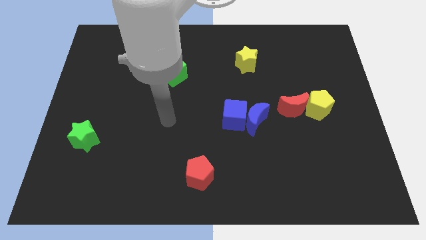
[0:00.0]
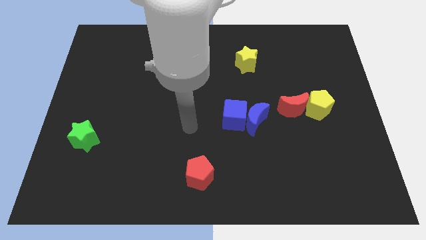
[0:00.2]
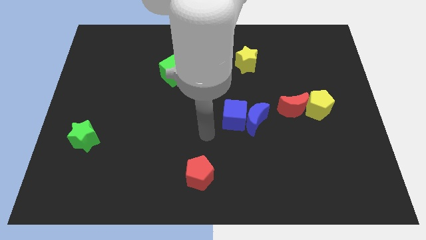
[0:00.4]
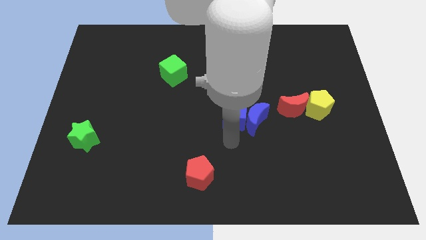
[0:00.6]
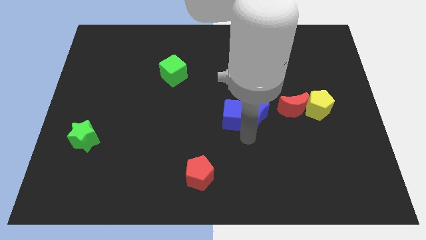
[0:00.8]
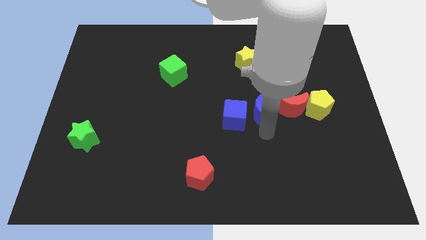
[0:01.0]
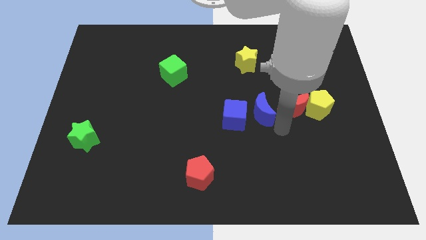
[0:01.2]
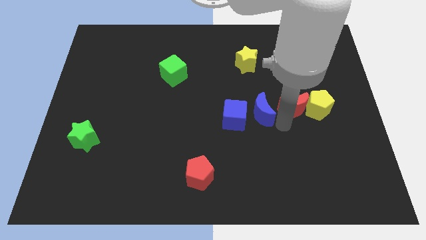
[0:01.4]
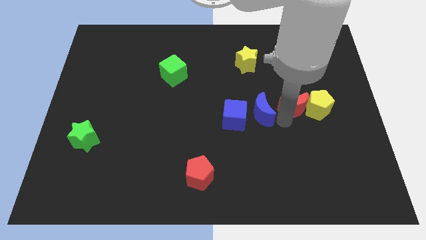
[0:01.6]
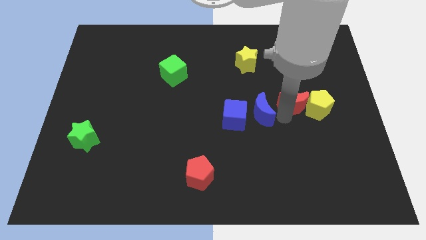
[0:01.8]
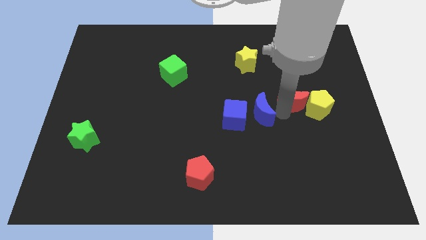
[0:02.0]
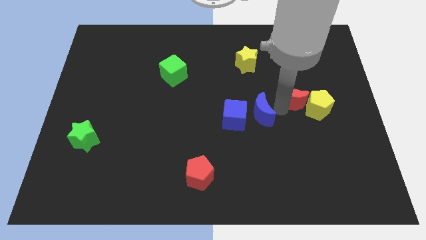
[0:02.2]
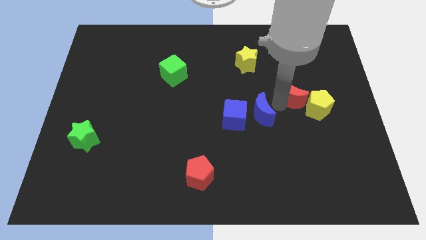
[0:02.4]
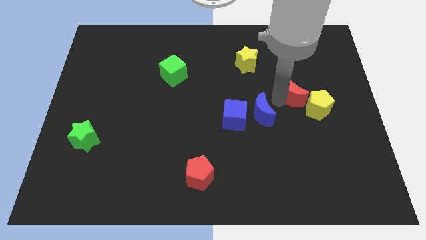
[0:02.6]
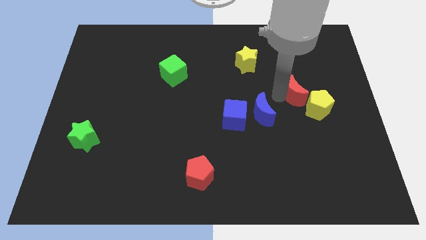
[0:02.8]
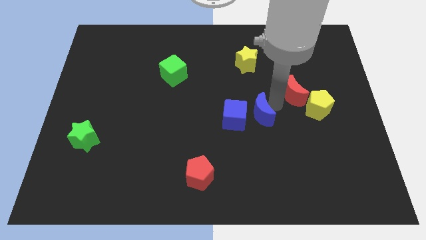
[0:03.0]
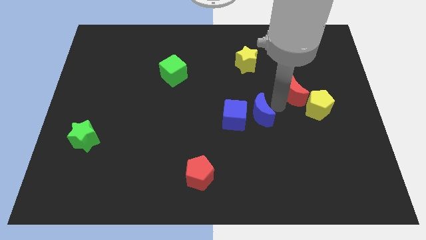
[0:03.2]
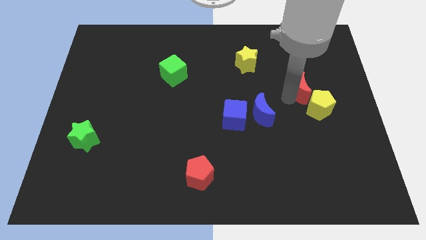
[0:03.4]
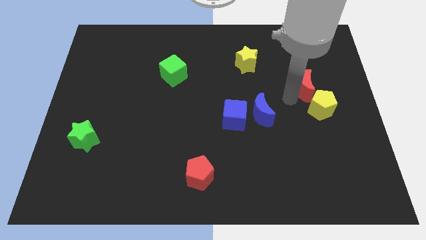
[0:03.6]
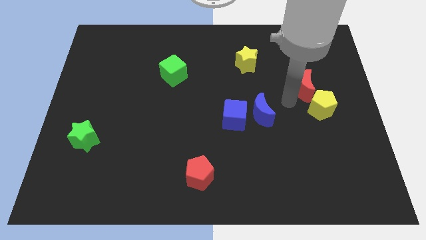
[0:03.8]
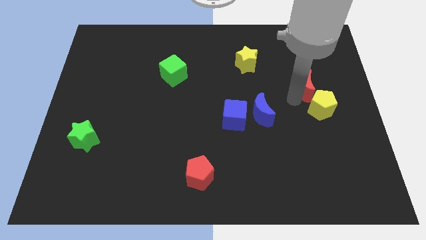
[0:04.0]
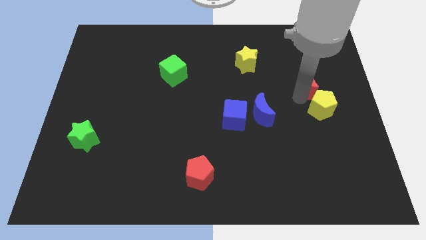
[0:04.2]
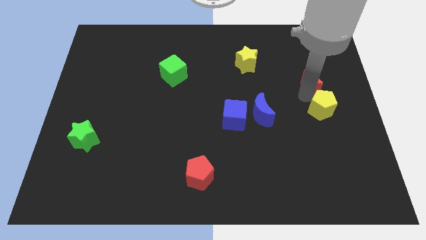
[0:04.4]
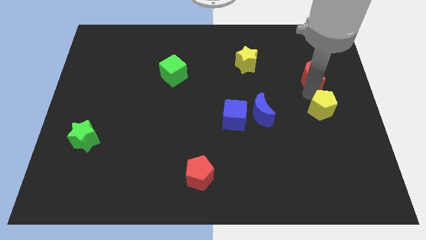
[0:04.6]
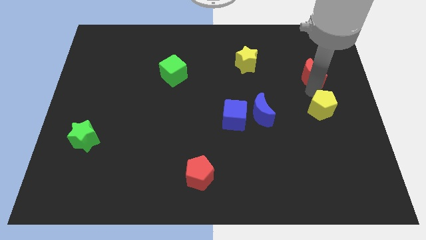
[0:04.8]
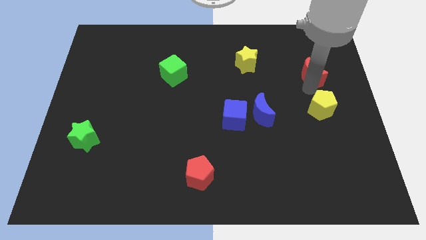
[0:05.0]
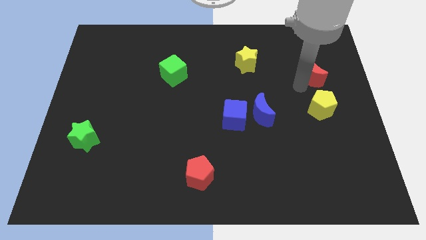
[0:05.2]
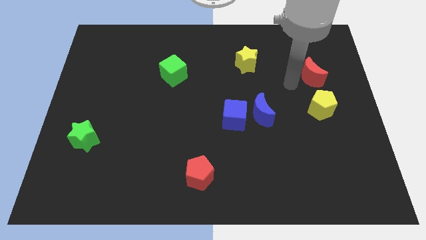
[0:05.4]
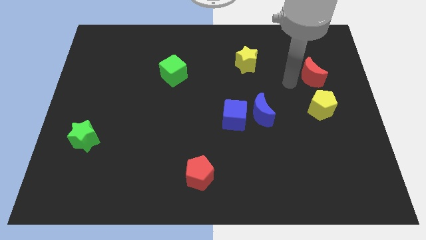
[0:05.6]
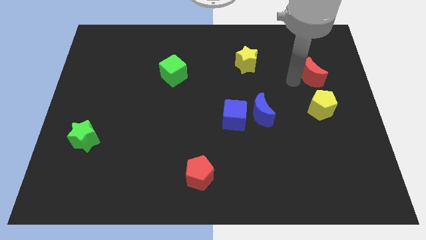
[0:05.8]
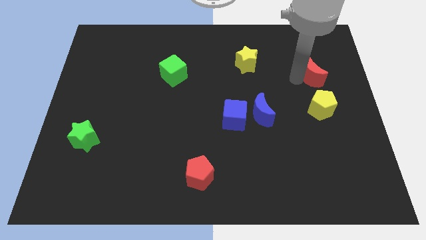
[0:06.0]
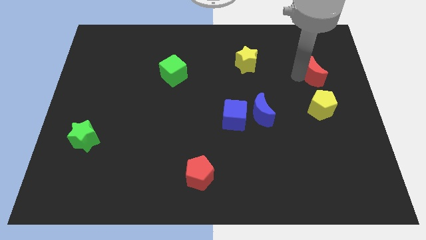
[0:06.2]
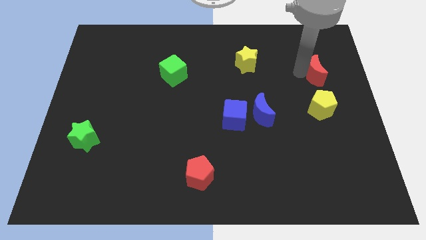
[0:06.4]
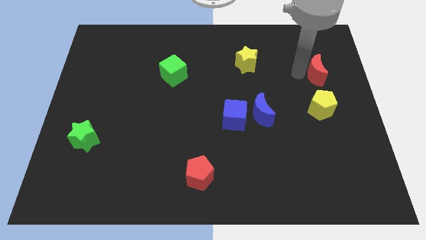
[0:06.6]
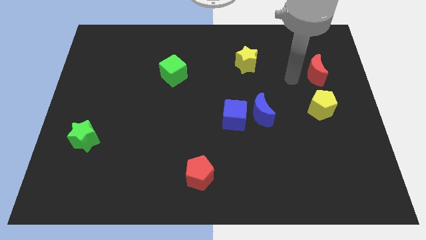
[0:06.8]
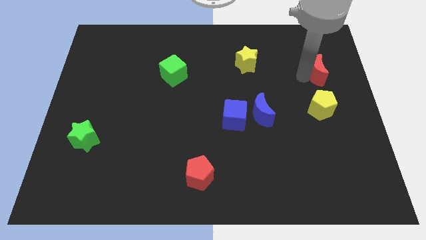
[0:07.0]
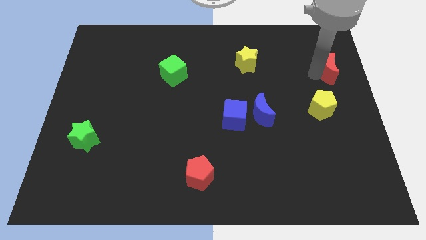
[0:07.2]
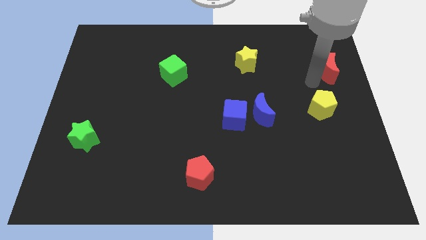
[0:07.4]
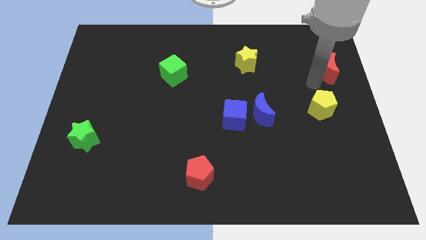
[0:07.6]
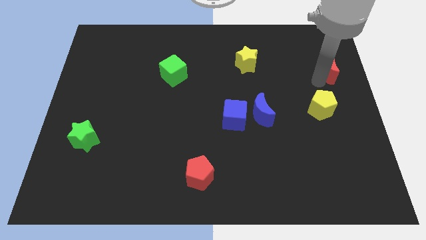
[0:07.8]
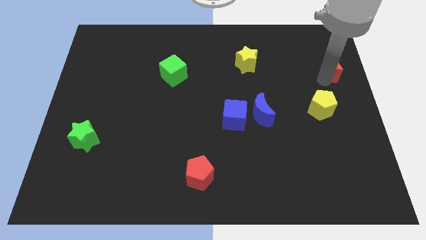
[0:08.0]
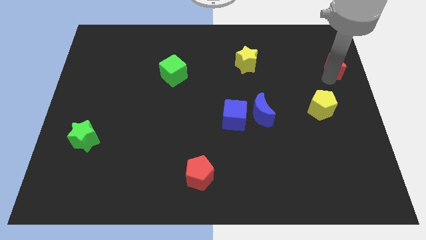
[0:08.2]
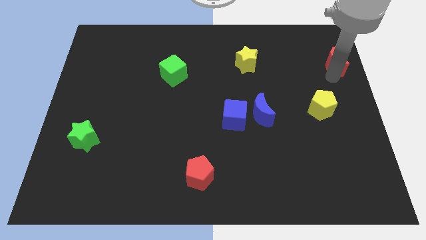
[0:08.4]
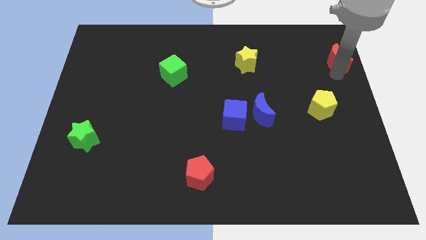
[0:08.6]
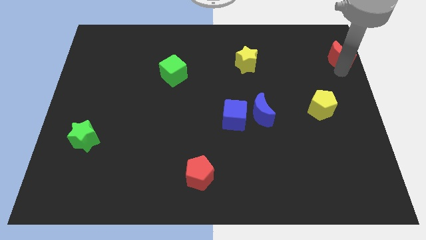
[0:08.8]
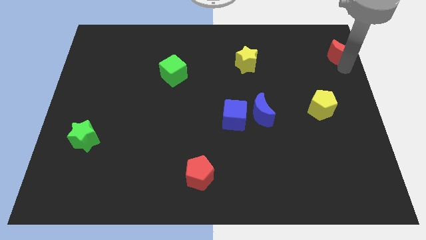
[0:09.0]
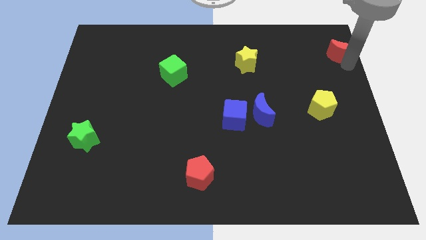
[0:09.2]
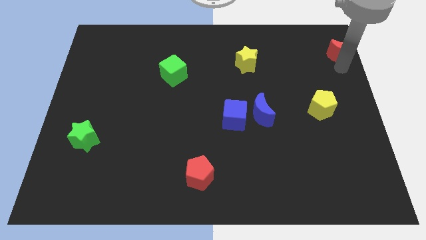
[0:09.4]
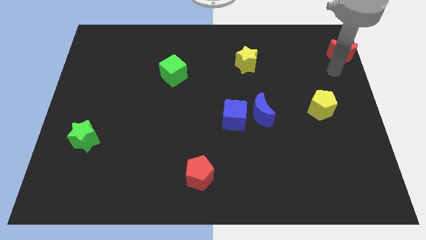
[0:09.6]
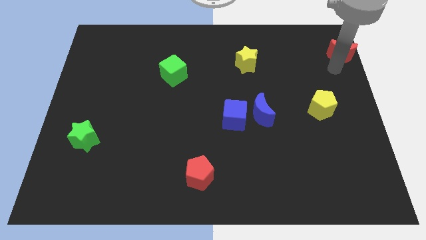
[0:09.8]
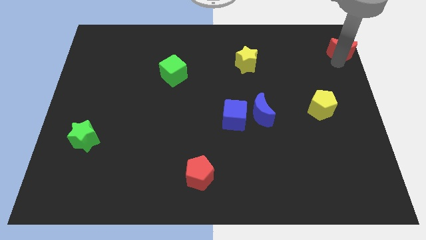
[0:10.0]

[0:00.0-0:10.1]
push the red moon to the top right corner

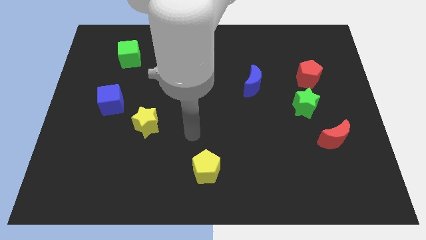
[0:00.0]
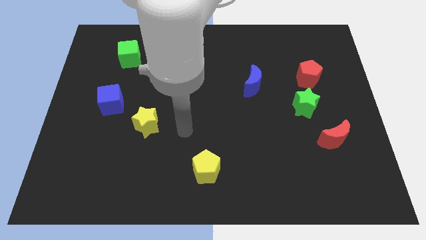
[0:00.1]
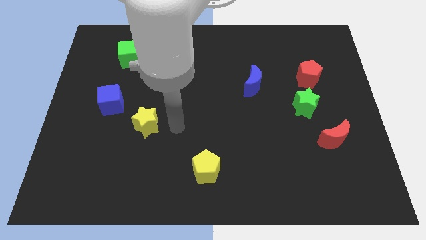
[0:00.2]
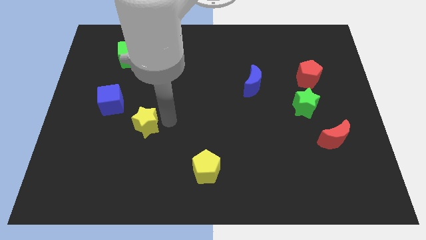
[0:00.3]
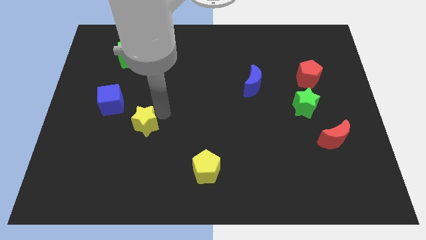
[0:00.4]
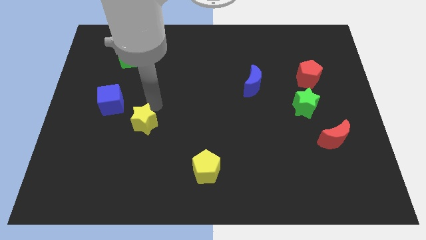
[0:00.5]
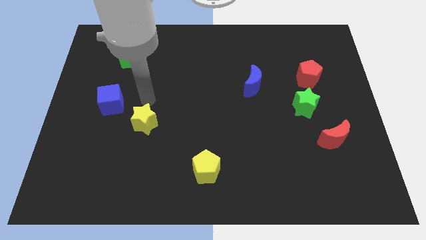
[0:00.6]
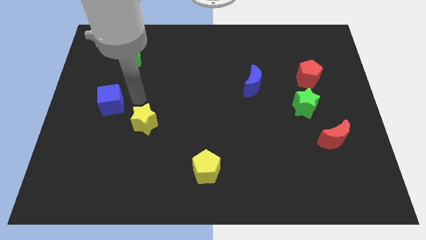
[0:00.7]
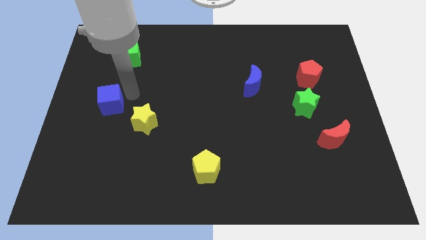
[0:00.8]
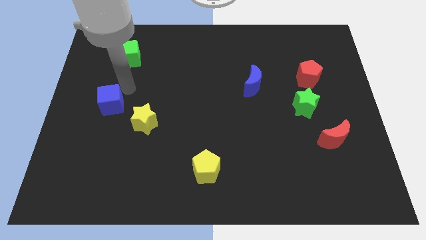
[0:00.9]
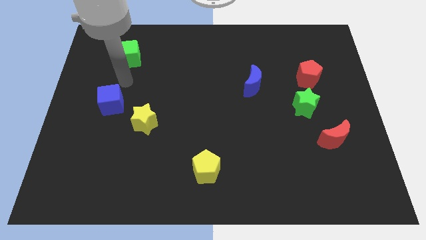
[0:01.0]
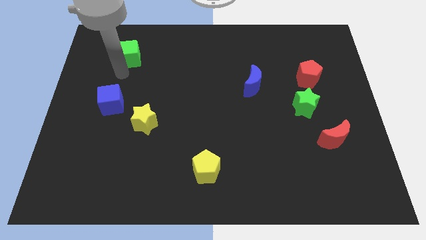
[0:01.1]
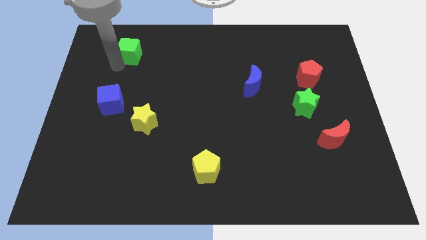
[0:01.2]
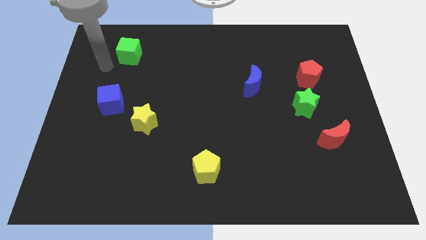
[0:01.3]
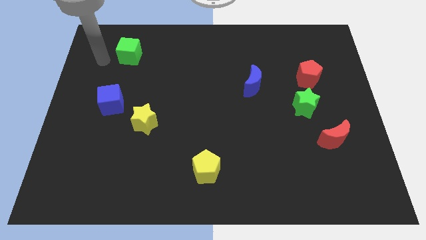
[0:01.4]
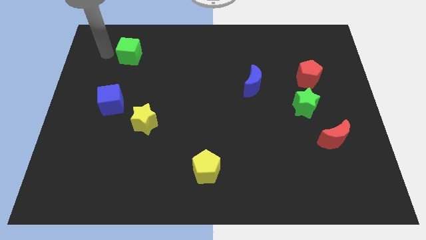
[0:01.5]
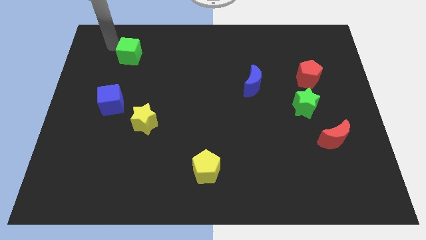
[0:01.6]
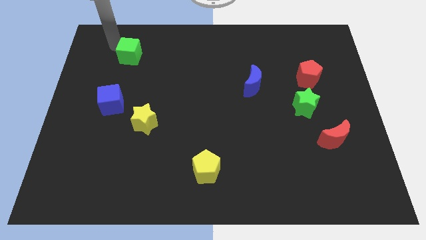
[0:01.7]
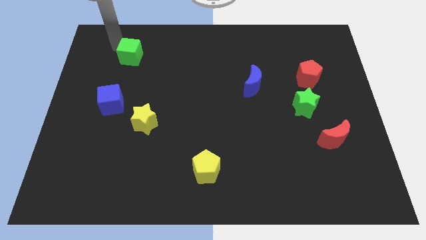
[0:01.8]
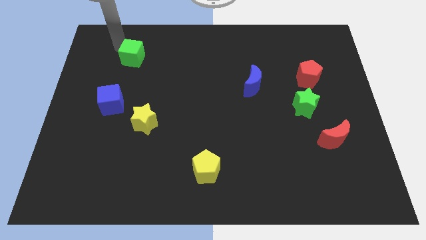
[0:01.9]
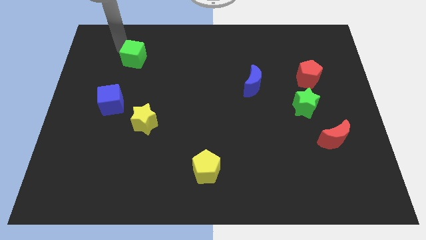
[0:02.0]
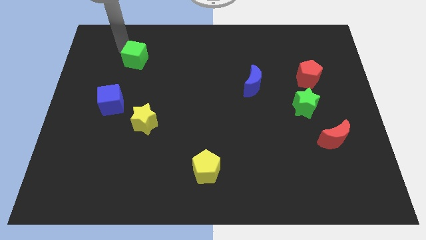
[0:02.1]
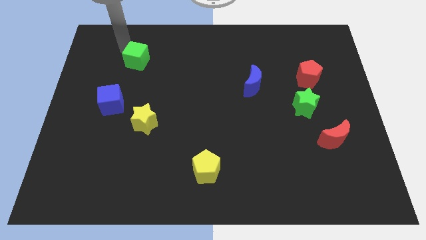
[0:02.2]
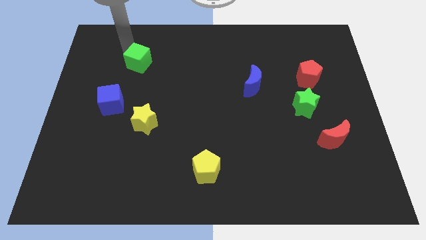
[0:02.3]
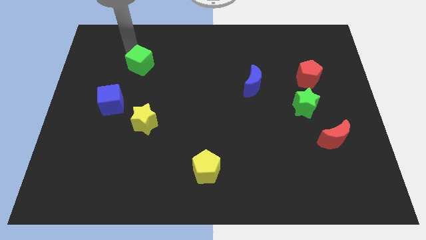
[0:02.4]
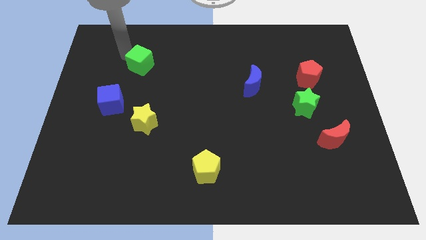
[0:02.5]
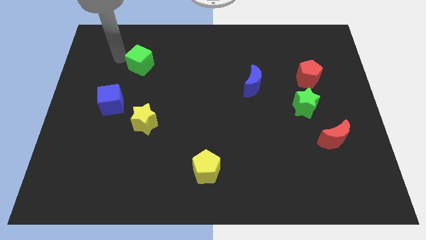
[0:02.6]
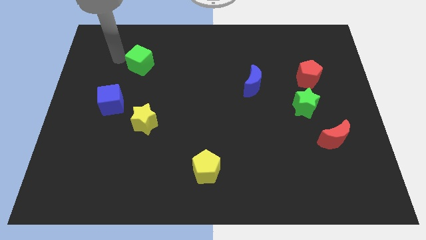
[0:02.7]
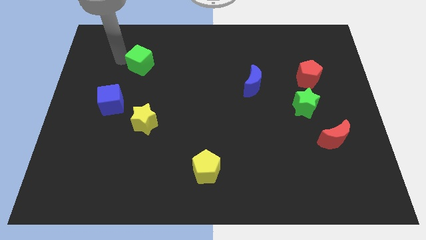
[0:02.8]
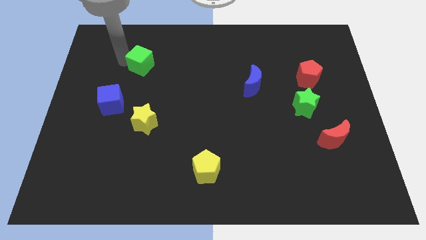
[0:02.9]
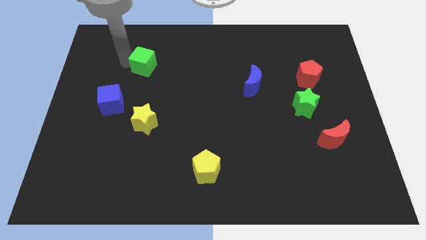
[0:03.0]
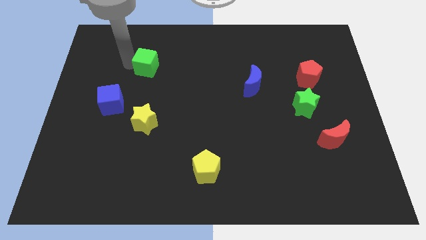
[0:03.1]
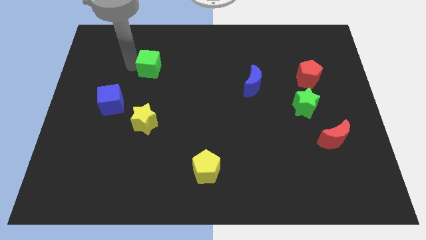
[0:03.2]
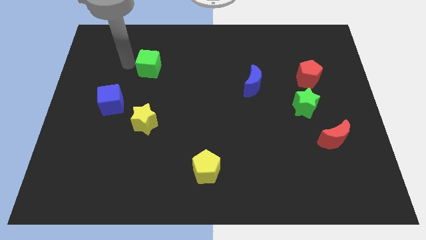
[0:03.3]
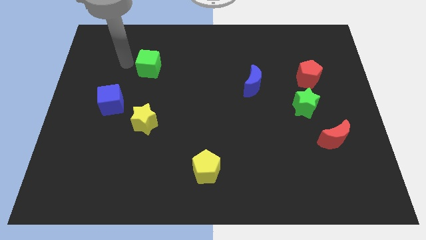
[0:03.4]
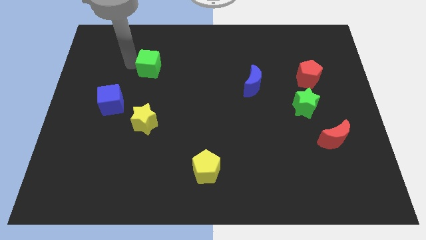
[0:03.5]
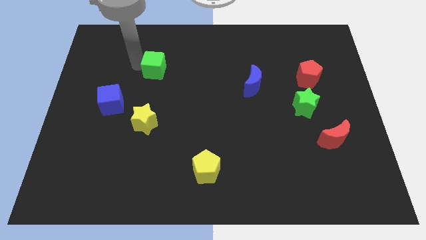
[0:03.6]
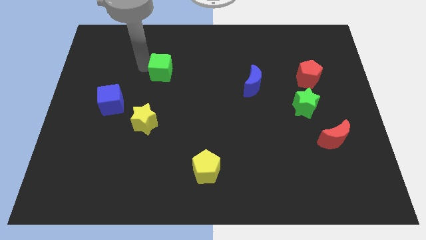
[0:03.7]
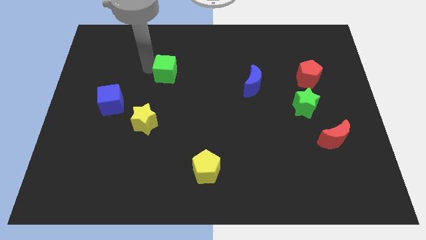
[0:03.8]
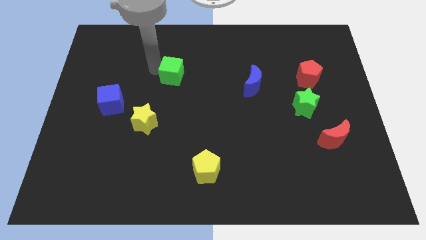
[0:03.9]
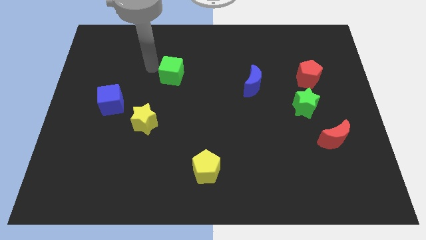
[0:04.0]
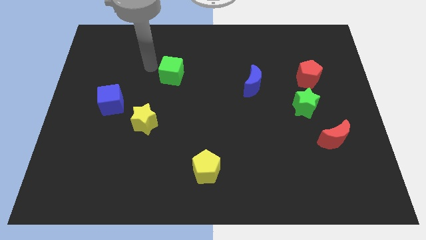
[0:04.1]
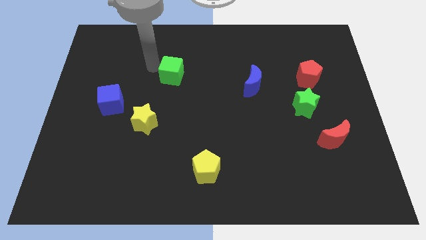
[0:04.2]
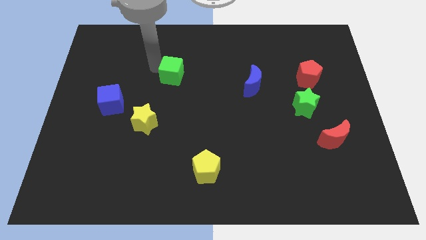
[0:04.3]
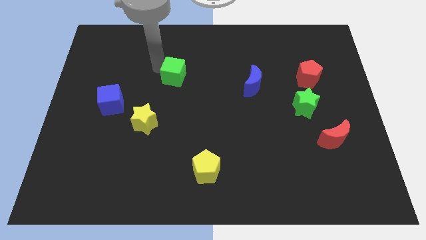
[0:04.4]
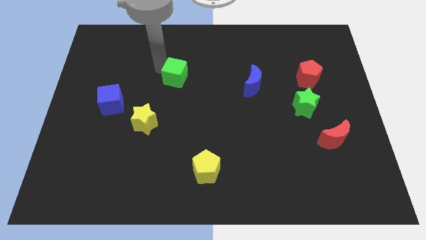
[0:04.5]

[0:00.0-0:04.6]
push the green cube to the middle
